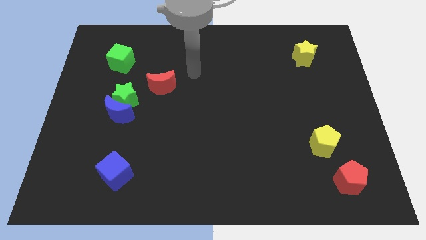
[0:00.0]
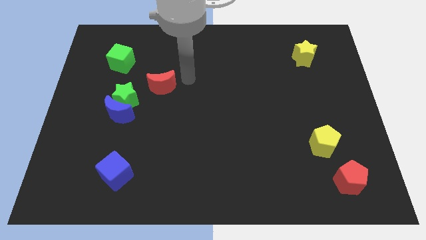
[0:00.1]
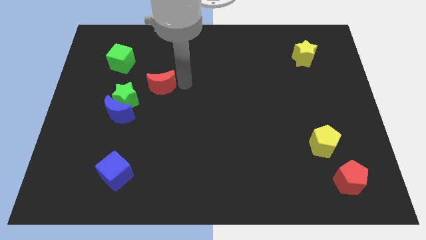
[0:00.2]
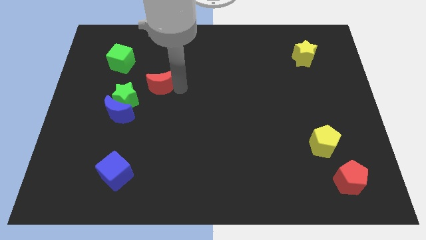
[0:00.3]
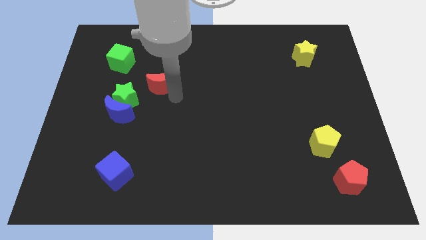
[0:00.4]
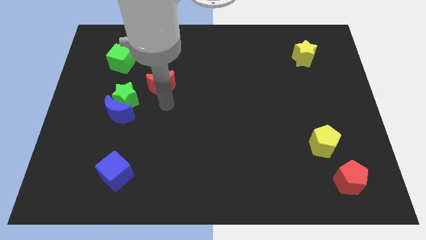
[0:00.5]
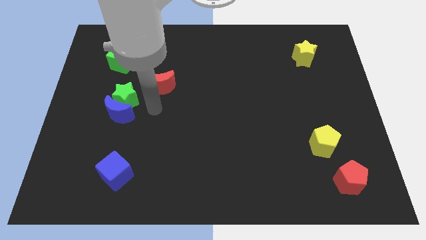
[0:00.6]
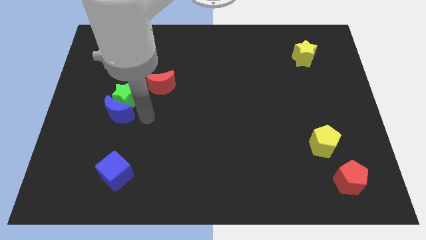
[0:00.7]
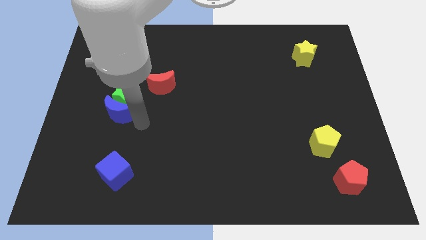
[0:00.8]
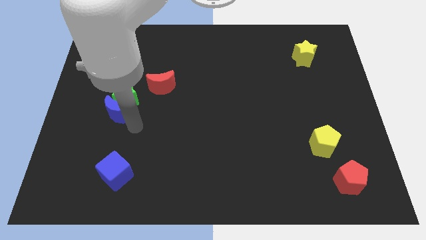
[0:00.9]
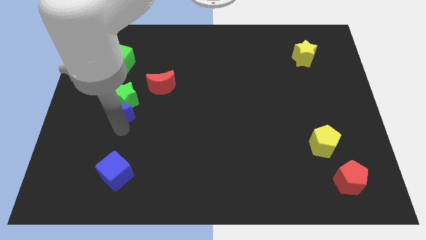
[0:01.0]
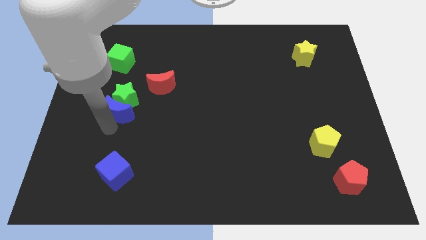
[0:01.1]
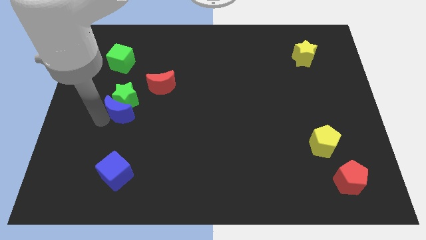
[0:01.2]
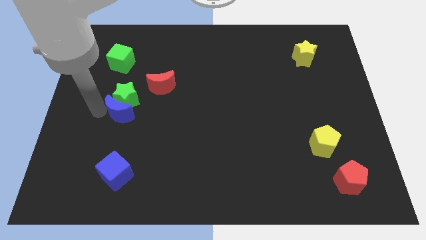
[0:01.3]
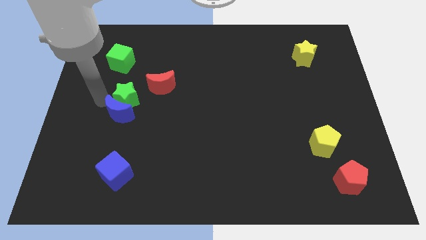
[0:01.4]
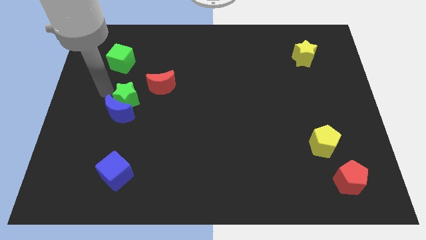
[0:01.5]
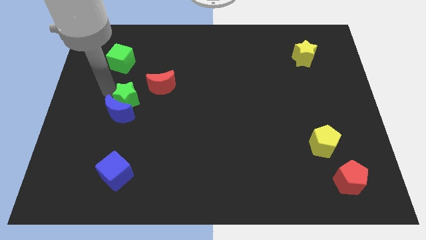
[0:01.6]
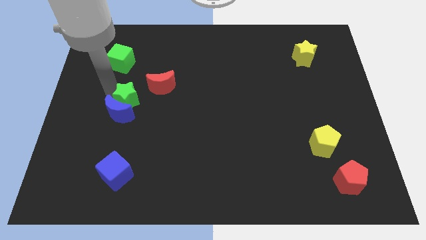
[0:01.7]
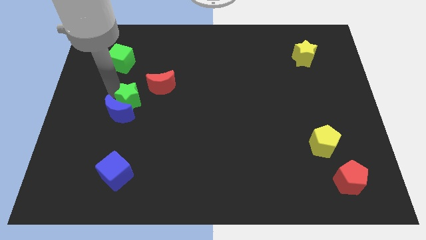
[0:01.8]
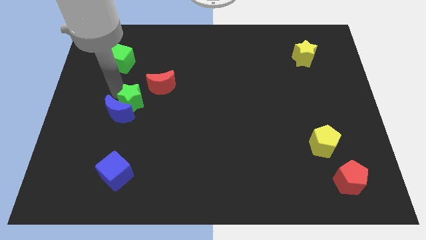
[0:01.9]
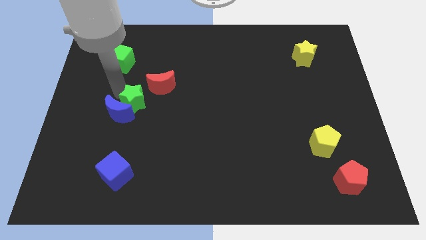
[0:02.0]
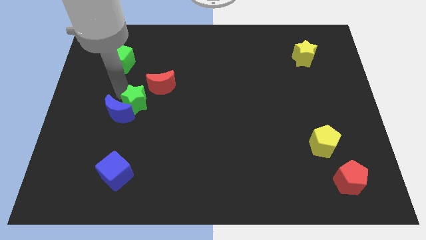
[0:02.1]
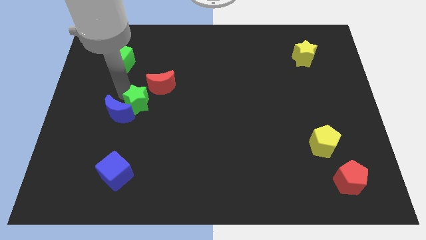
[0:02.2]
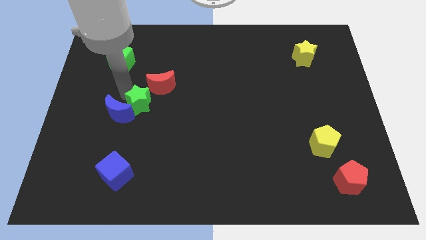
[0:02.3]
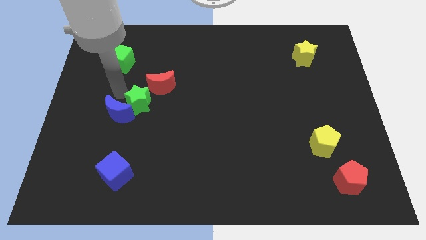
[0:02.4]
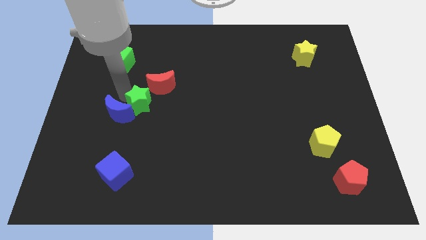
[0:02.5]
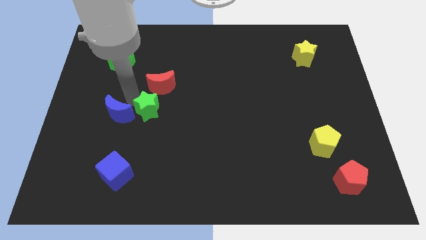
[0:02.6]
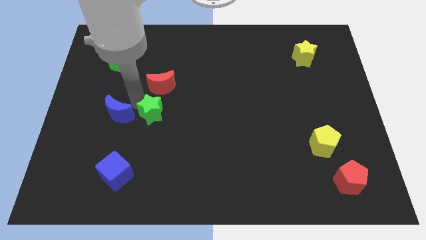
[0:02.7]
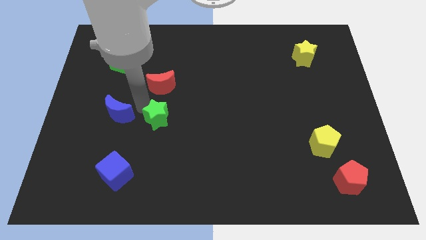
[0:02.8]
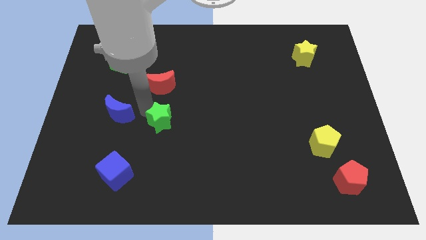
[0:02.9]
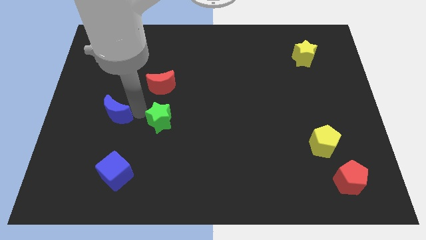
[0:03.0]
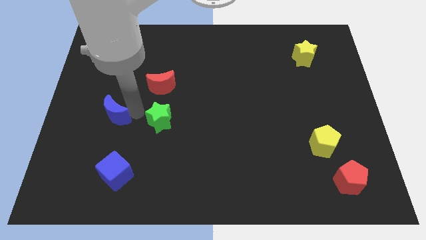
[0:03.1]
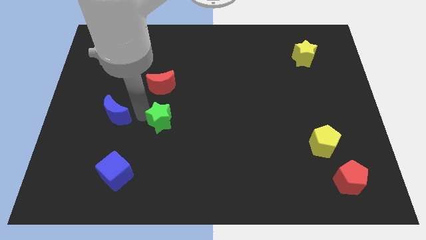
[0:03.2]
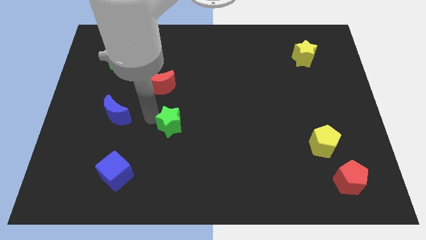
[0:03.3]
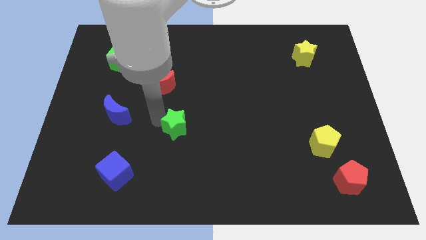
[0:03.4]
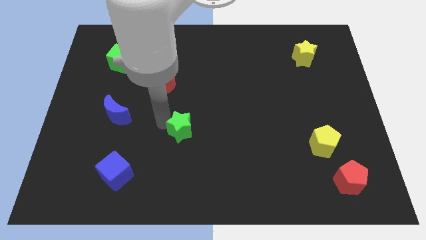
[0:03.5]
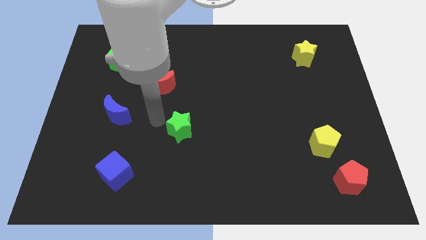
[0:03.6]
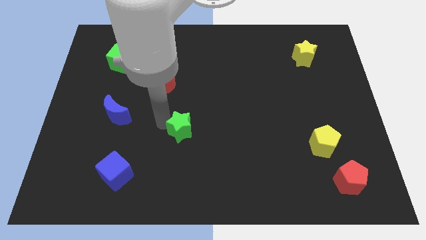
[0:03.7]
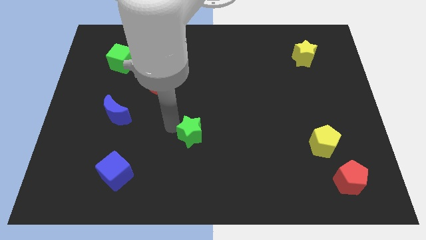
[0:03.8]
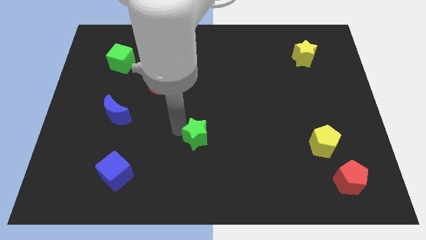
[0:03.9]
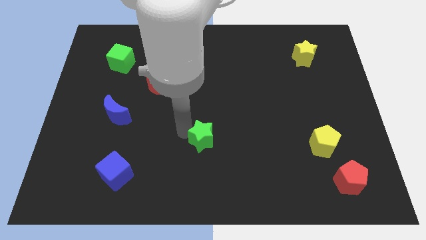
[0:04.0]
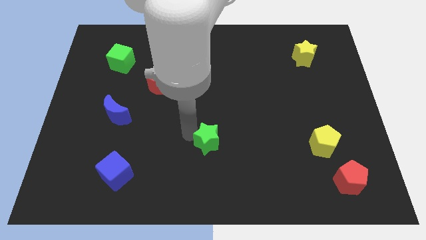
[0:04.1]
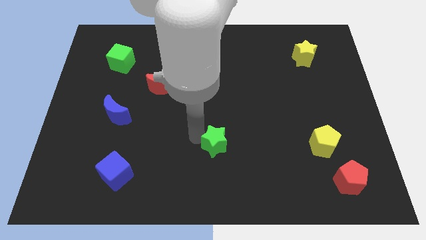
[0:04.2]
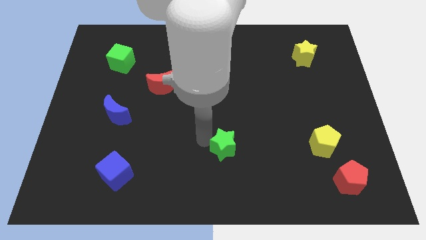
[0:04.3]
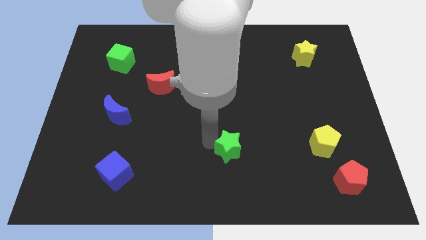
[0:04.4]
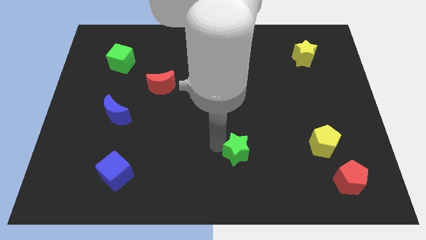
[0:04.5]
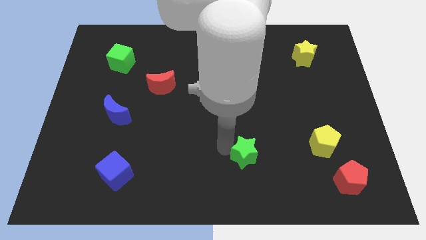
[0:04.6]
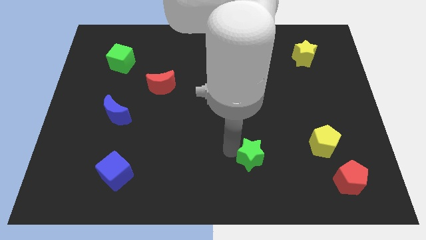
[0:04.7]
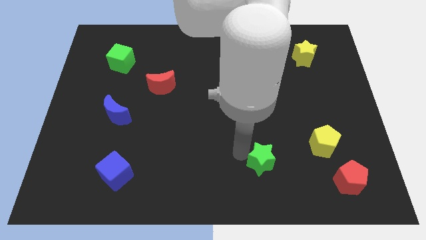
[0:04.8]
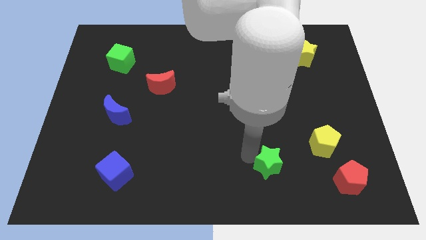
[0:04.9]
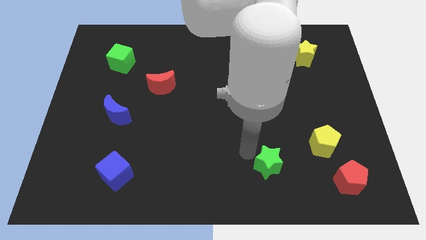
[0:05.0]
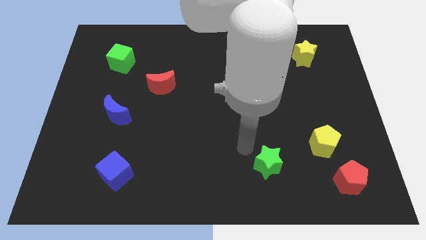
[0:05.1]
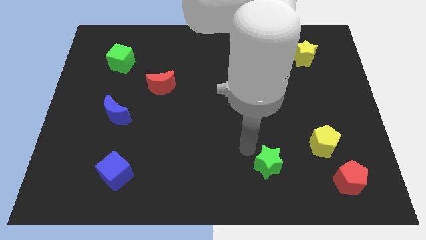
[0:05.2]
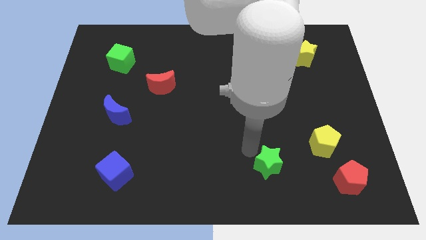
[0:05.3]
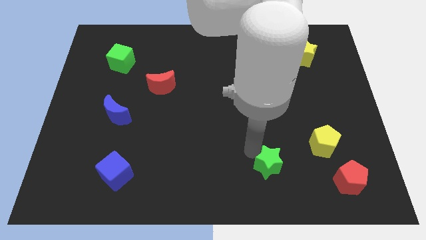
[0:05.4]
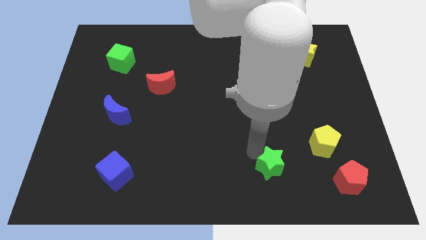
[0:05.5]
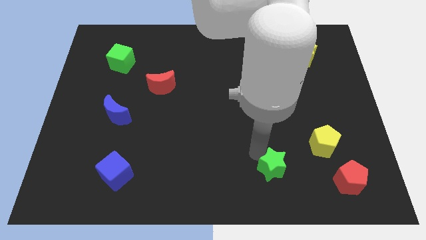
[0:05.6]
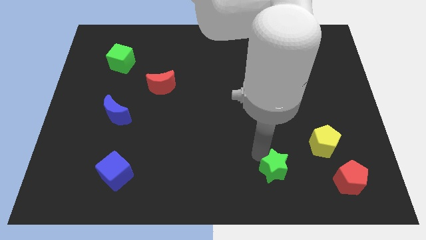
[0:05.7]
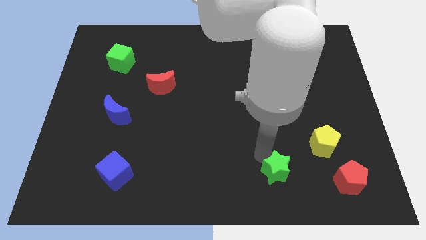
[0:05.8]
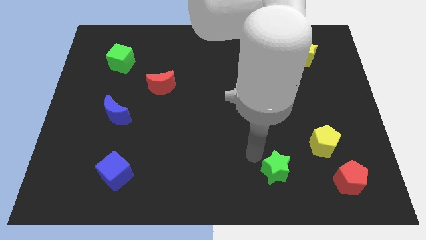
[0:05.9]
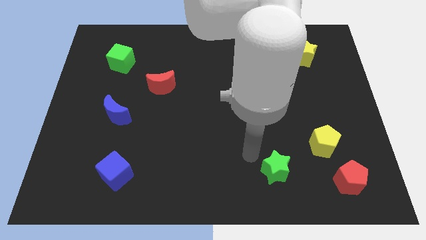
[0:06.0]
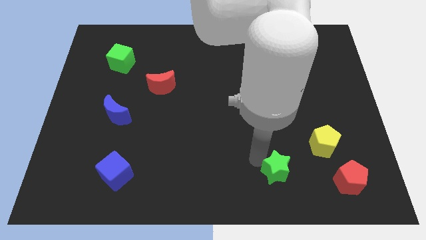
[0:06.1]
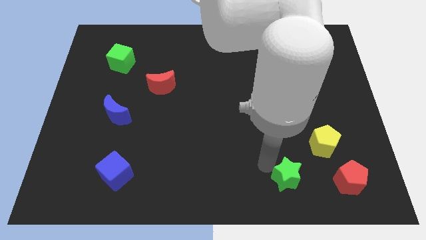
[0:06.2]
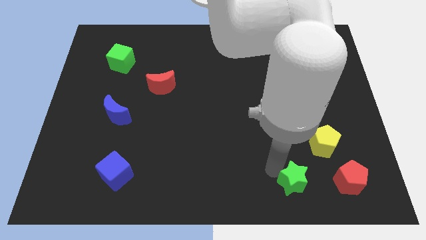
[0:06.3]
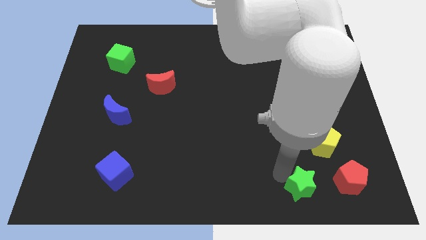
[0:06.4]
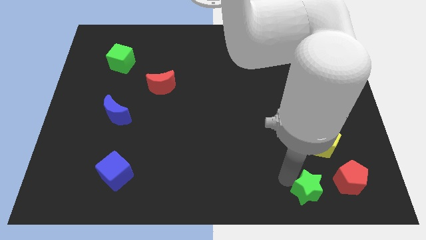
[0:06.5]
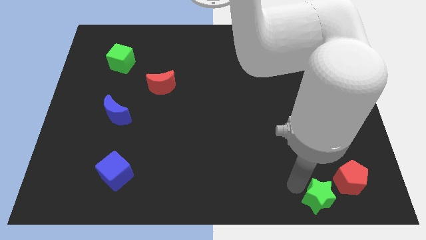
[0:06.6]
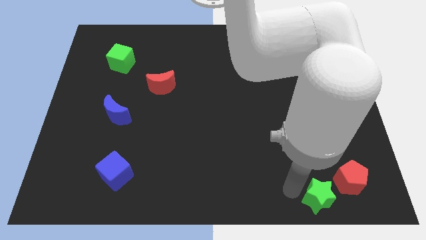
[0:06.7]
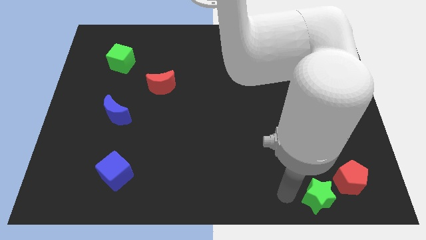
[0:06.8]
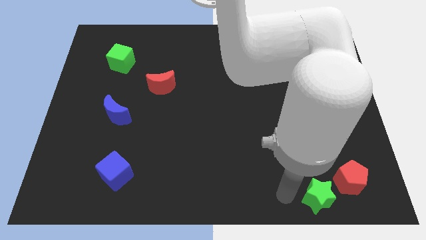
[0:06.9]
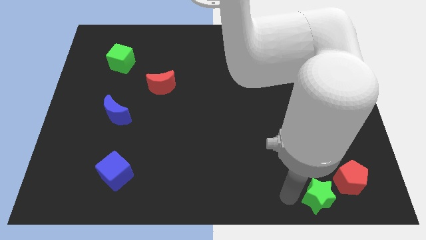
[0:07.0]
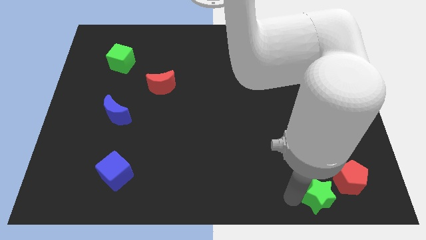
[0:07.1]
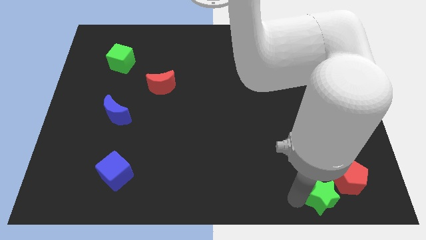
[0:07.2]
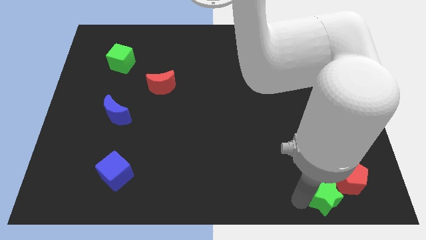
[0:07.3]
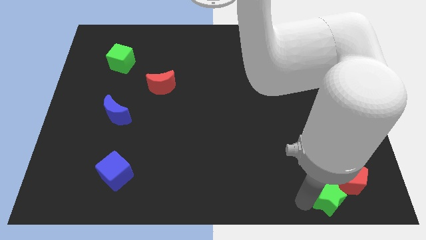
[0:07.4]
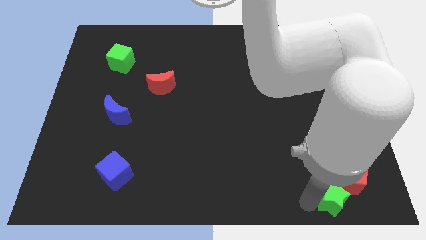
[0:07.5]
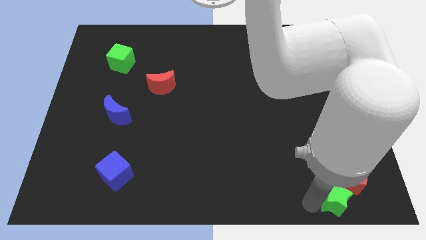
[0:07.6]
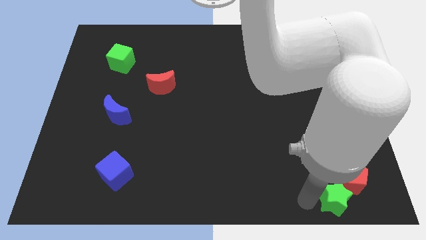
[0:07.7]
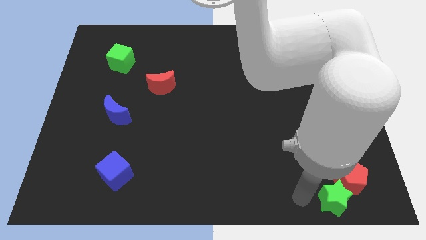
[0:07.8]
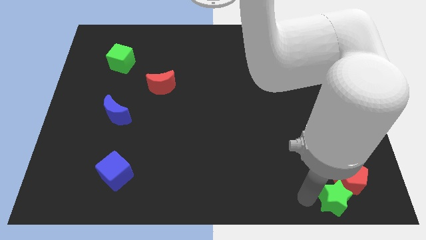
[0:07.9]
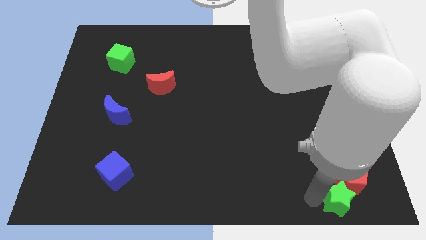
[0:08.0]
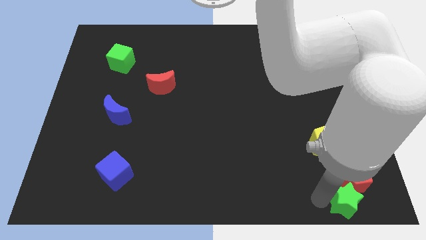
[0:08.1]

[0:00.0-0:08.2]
move the green star to the bottom right of the board
